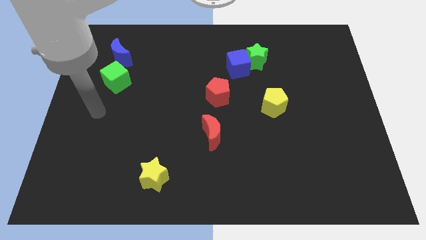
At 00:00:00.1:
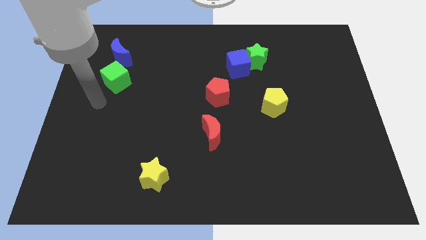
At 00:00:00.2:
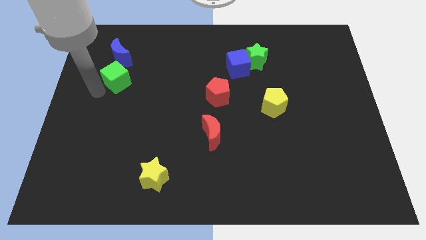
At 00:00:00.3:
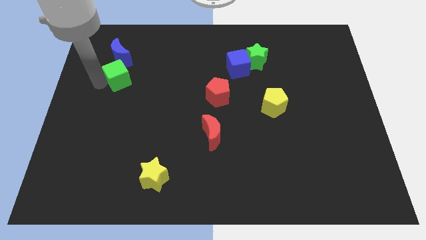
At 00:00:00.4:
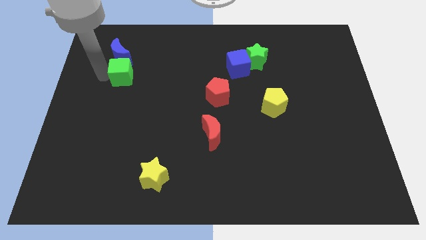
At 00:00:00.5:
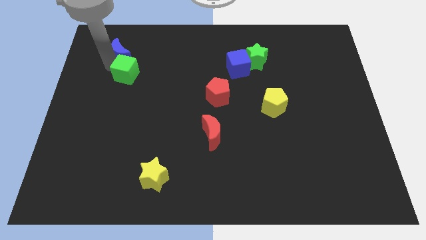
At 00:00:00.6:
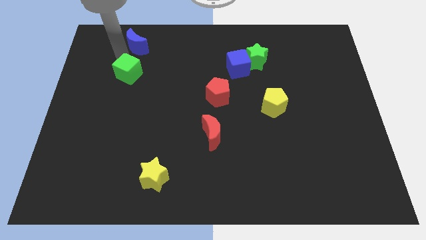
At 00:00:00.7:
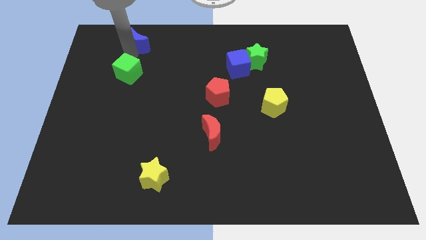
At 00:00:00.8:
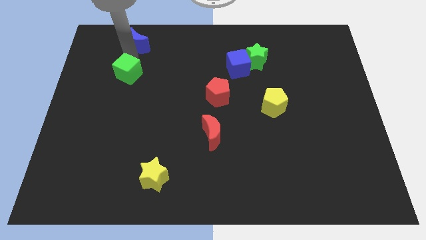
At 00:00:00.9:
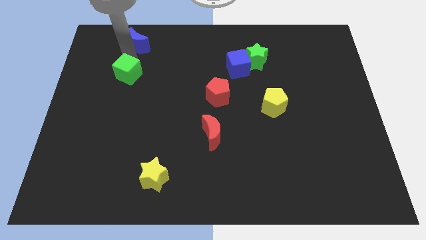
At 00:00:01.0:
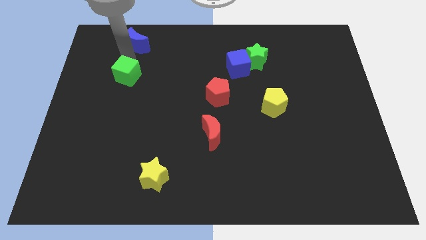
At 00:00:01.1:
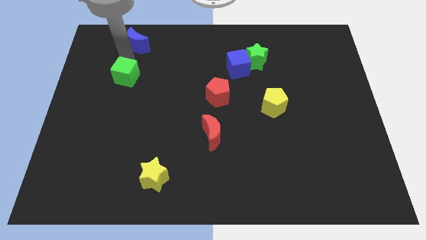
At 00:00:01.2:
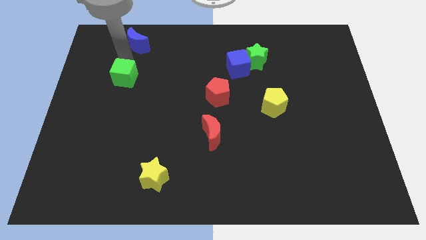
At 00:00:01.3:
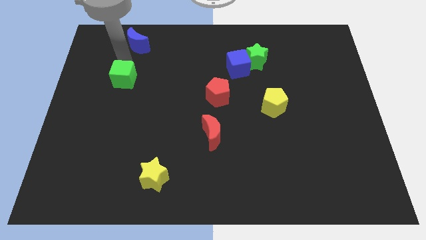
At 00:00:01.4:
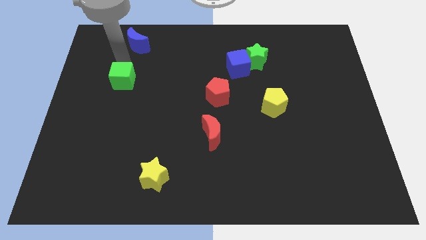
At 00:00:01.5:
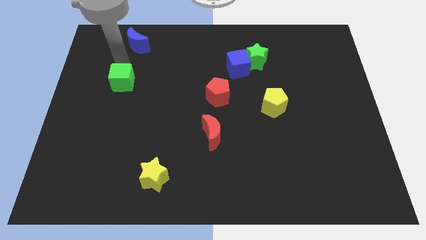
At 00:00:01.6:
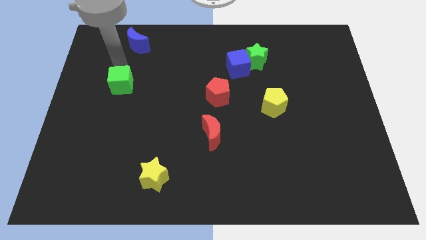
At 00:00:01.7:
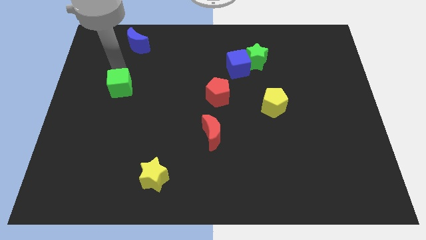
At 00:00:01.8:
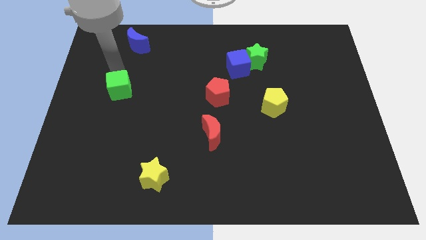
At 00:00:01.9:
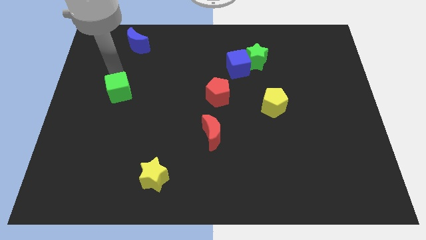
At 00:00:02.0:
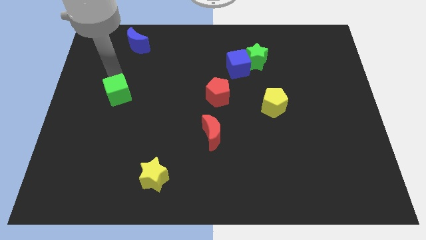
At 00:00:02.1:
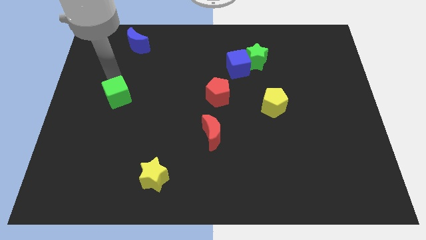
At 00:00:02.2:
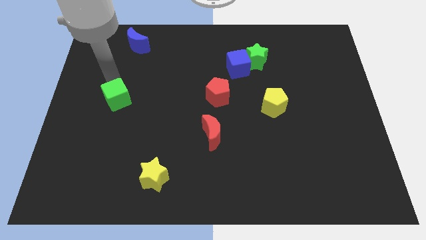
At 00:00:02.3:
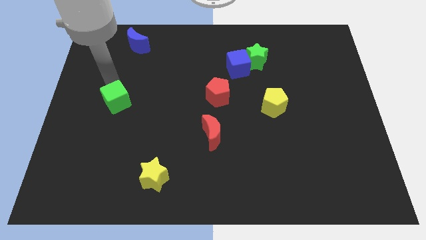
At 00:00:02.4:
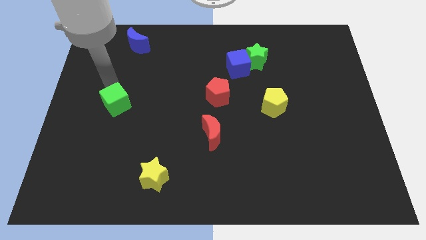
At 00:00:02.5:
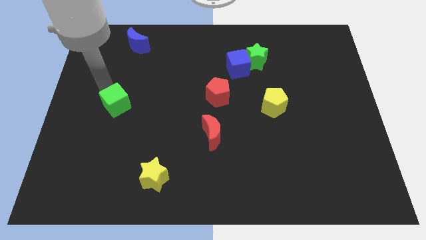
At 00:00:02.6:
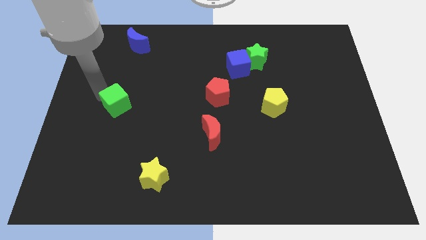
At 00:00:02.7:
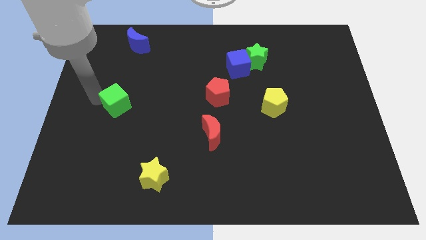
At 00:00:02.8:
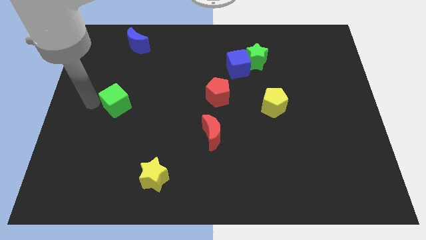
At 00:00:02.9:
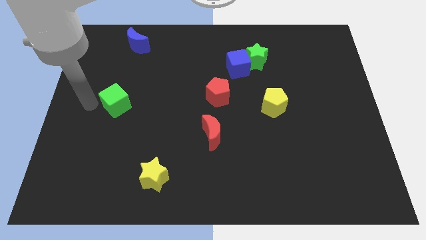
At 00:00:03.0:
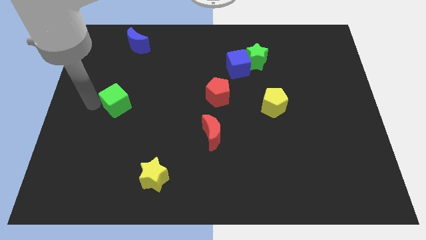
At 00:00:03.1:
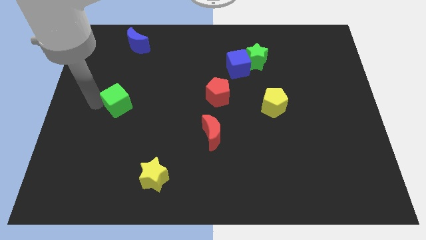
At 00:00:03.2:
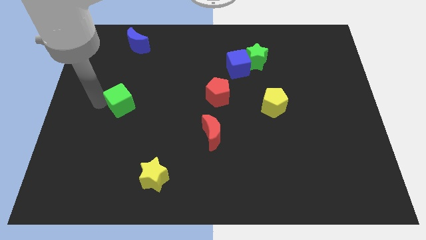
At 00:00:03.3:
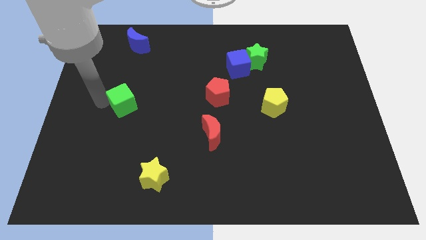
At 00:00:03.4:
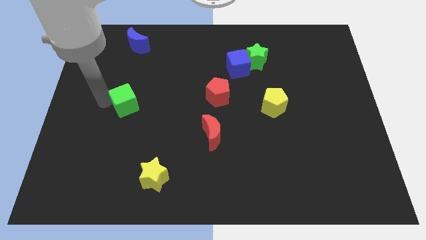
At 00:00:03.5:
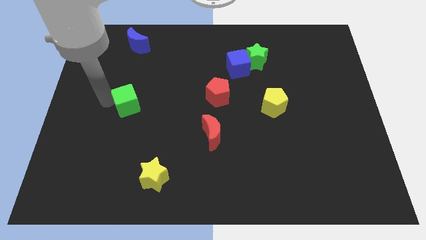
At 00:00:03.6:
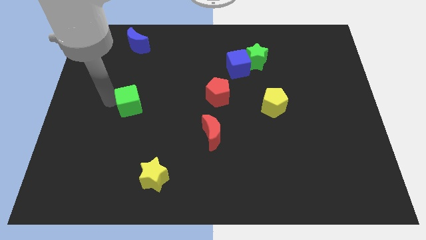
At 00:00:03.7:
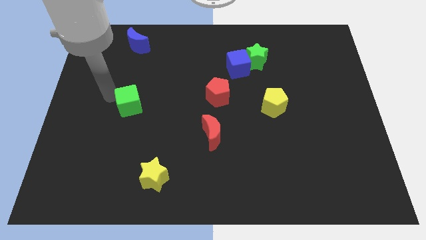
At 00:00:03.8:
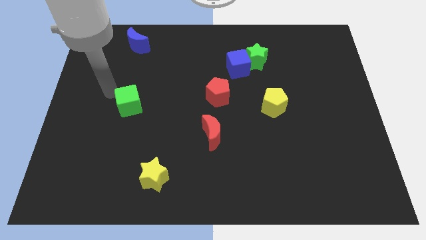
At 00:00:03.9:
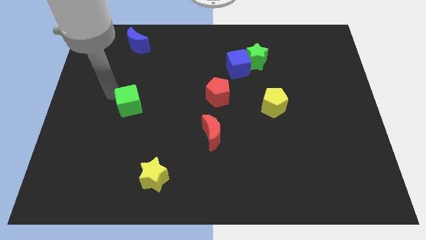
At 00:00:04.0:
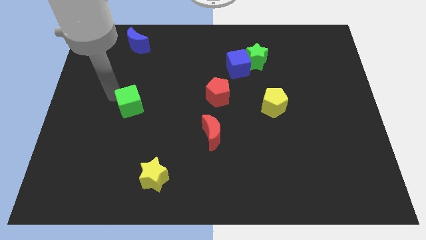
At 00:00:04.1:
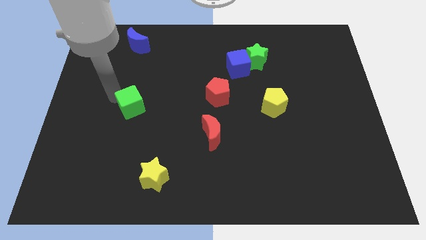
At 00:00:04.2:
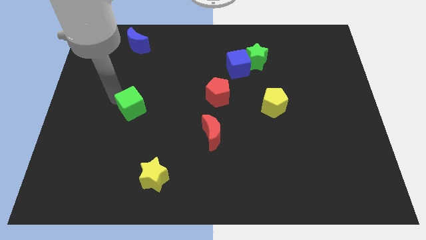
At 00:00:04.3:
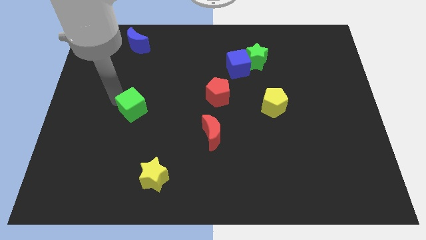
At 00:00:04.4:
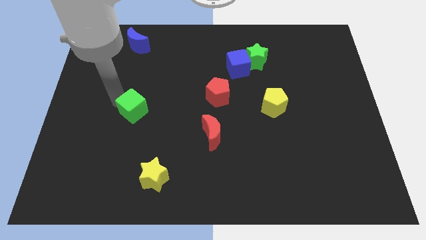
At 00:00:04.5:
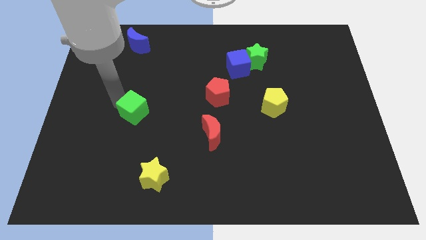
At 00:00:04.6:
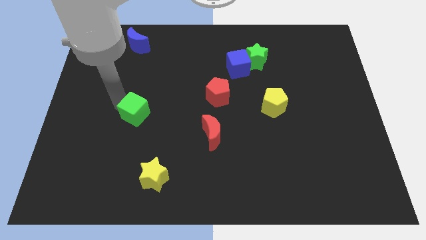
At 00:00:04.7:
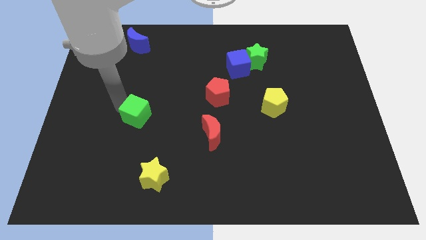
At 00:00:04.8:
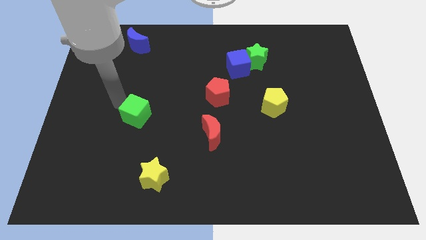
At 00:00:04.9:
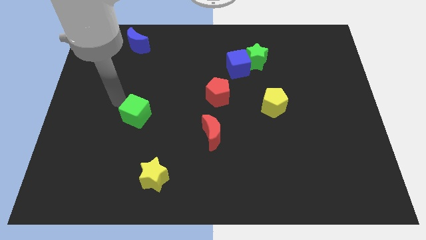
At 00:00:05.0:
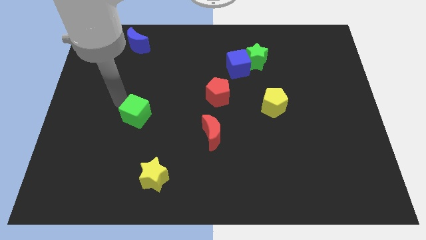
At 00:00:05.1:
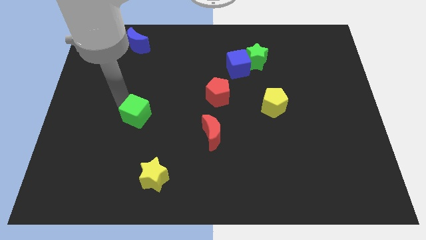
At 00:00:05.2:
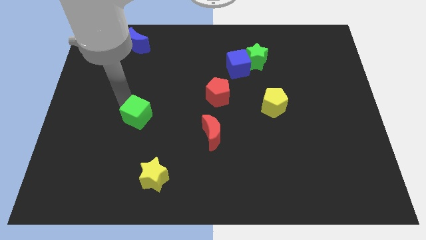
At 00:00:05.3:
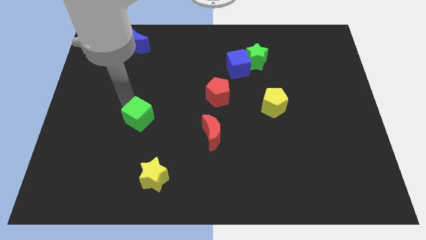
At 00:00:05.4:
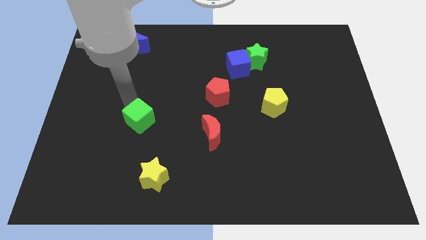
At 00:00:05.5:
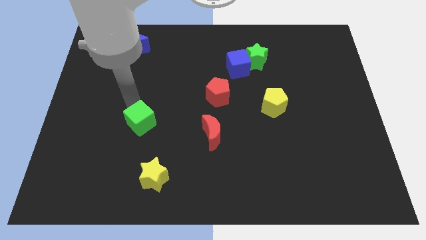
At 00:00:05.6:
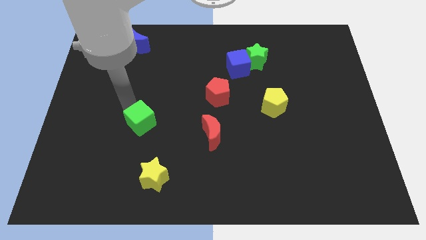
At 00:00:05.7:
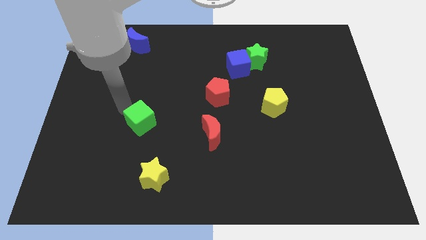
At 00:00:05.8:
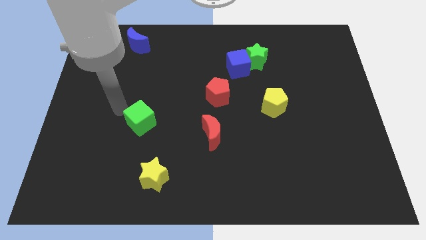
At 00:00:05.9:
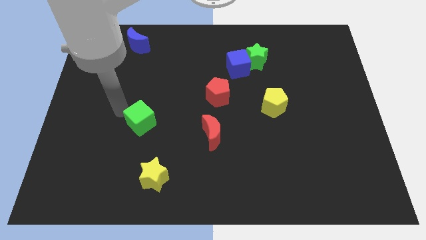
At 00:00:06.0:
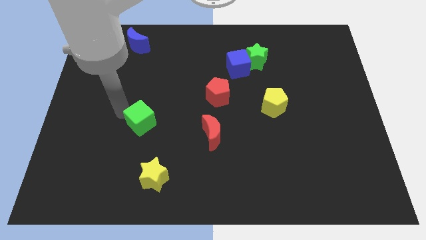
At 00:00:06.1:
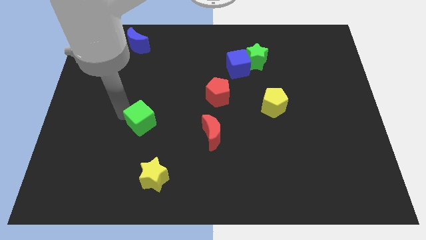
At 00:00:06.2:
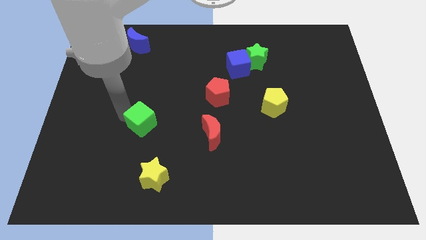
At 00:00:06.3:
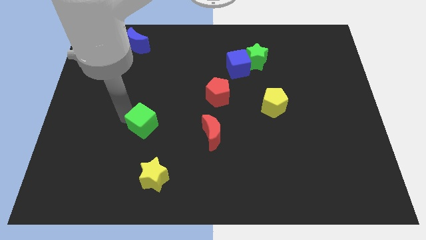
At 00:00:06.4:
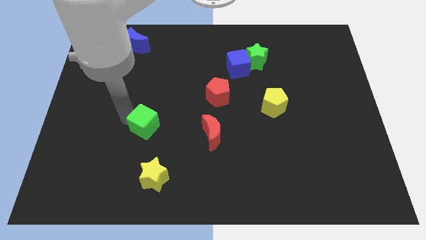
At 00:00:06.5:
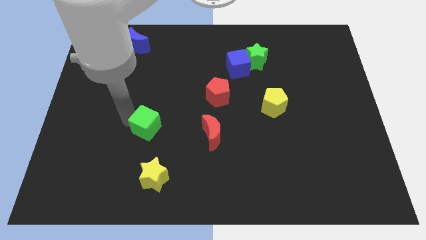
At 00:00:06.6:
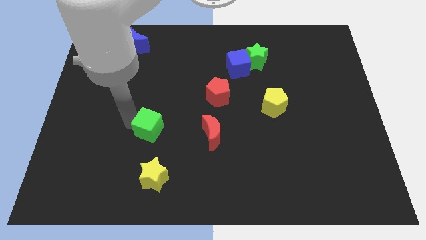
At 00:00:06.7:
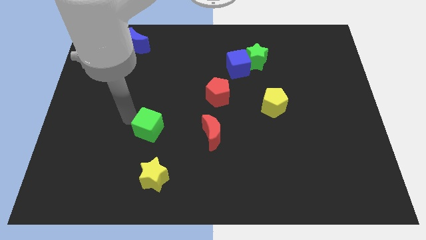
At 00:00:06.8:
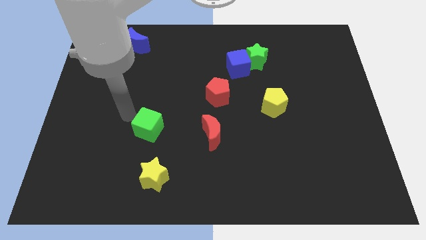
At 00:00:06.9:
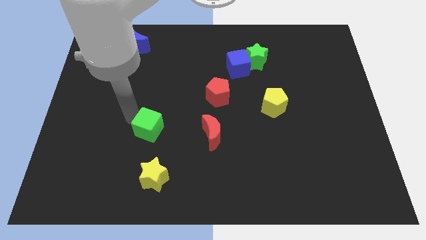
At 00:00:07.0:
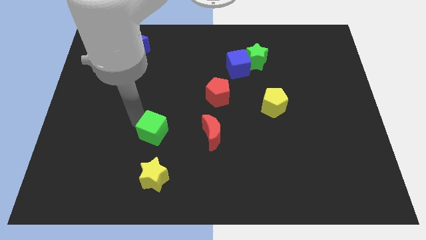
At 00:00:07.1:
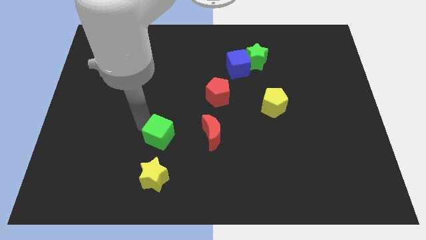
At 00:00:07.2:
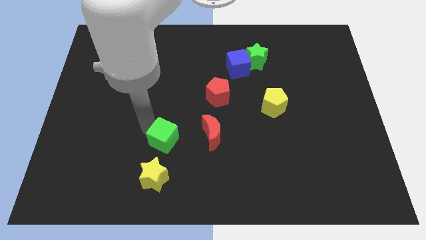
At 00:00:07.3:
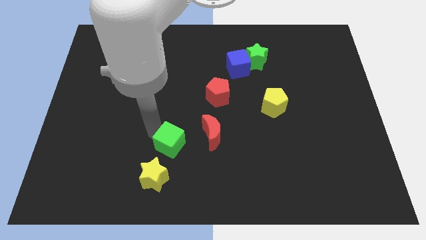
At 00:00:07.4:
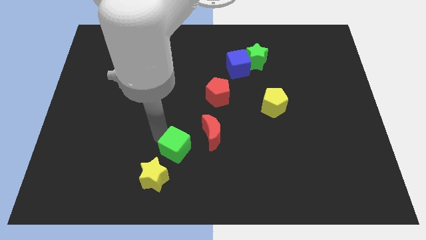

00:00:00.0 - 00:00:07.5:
move the green cube diagonally down and to the left of the red moon
